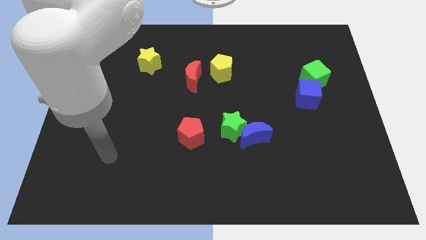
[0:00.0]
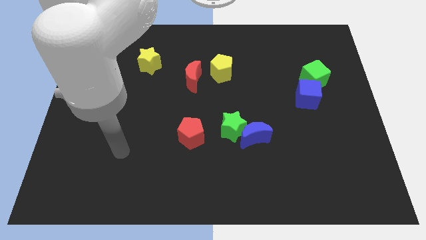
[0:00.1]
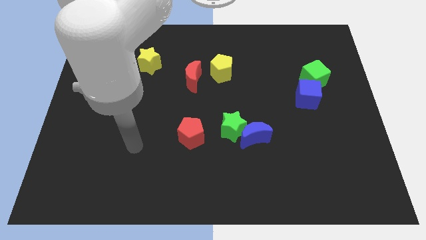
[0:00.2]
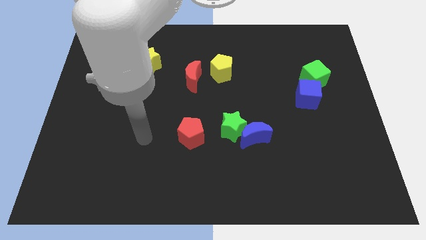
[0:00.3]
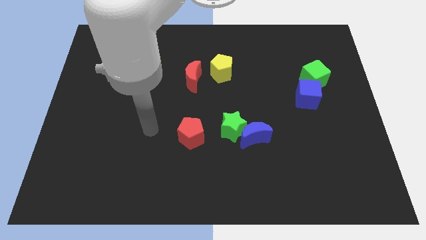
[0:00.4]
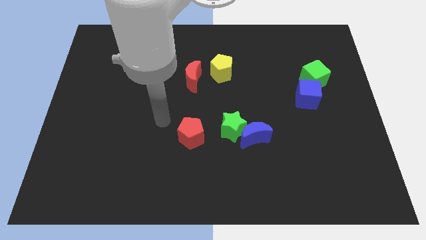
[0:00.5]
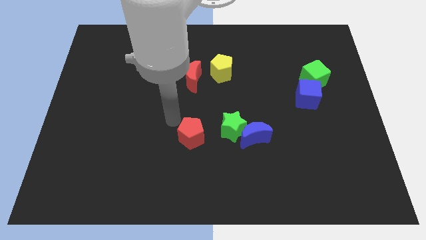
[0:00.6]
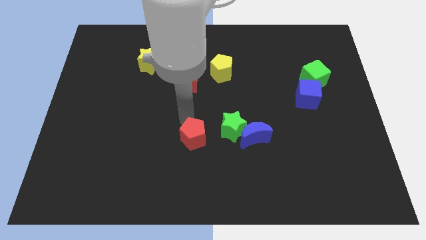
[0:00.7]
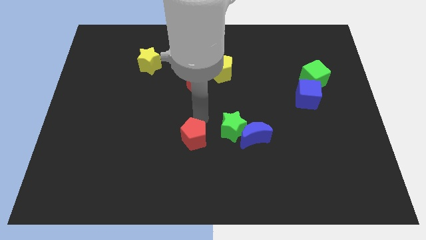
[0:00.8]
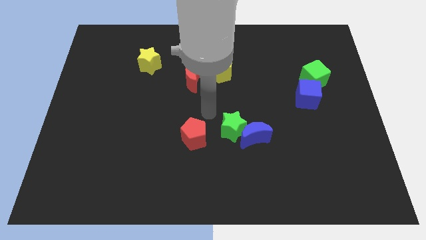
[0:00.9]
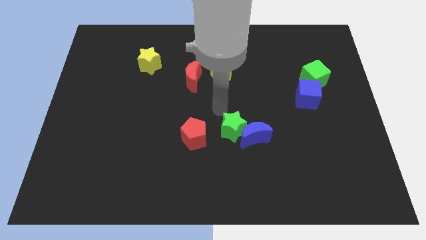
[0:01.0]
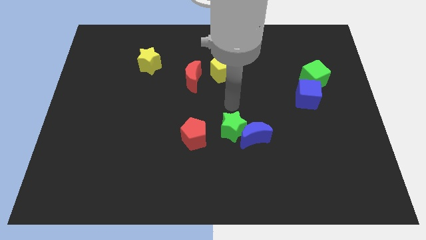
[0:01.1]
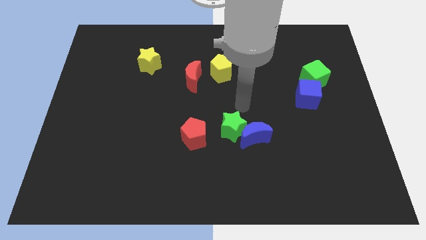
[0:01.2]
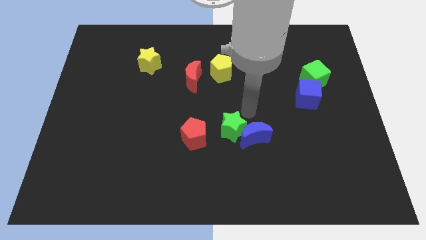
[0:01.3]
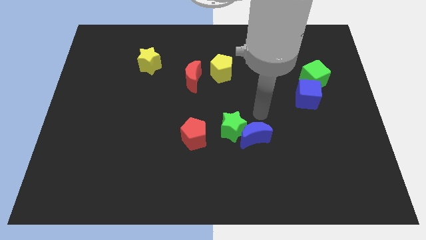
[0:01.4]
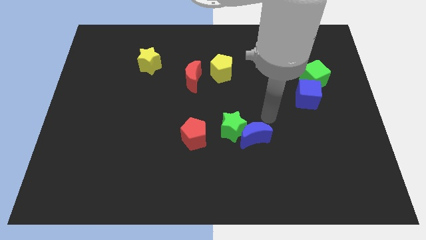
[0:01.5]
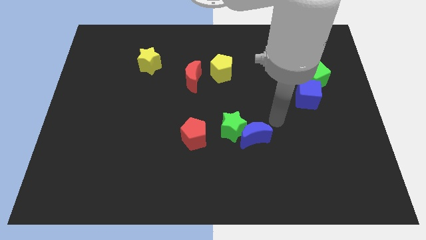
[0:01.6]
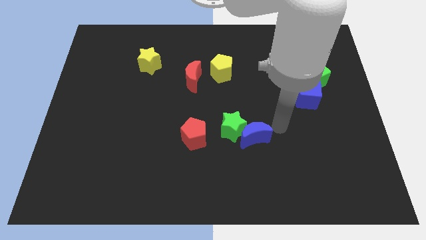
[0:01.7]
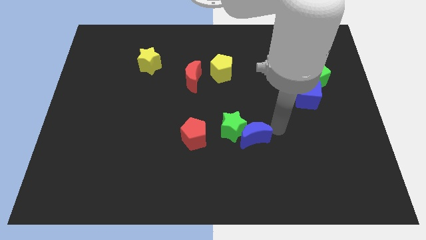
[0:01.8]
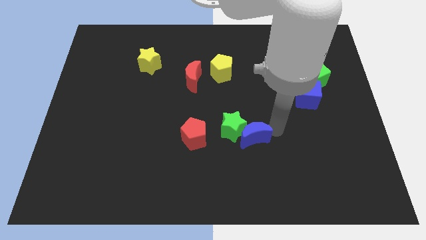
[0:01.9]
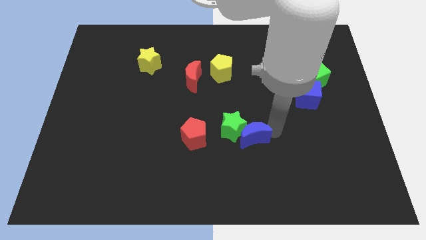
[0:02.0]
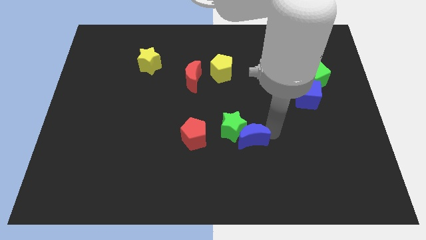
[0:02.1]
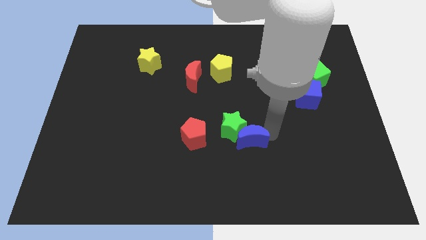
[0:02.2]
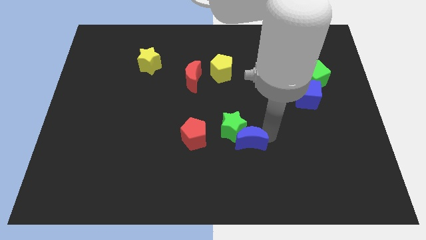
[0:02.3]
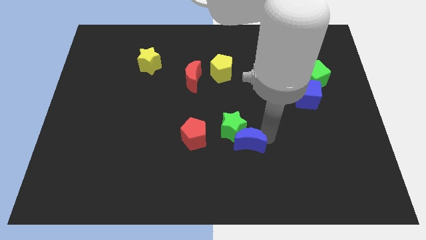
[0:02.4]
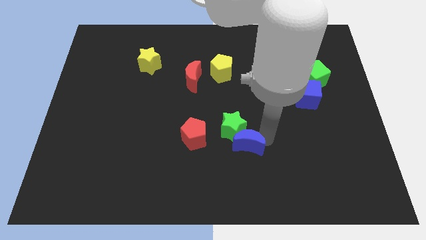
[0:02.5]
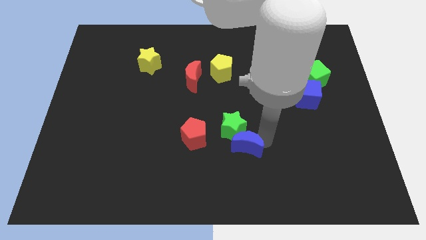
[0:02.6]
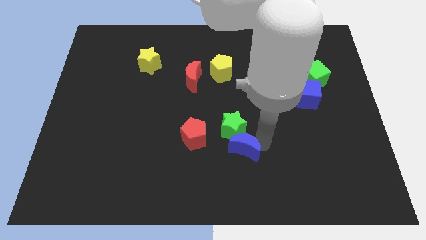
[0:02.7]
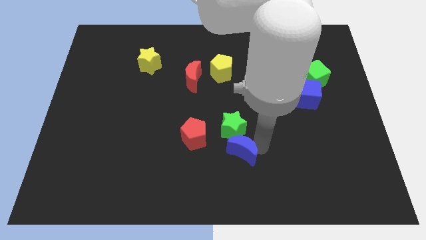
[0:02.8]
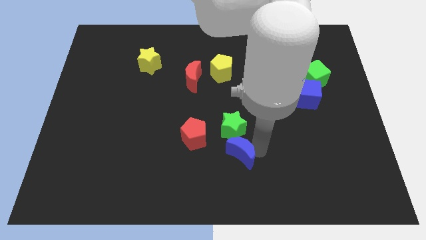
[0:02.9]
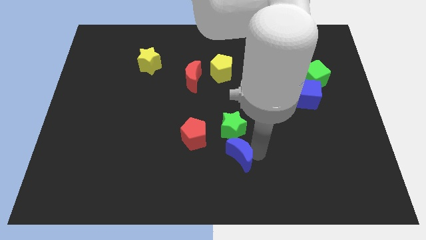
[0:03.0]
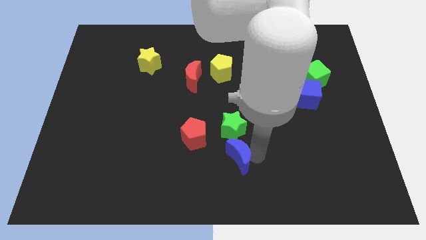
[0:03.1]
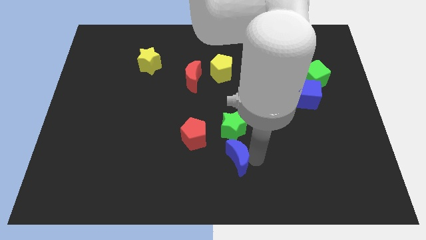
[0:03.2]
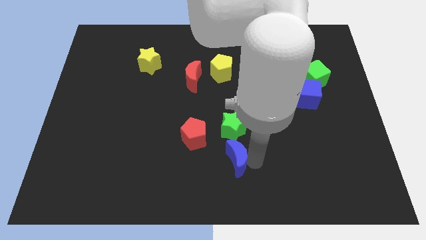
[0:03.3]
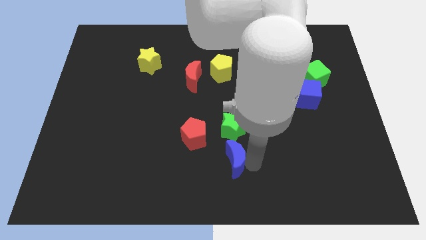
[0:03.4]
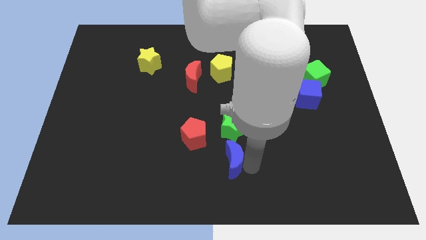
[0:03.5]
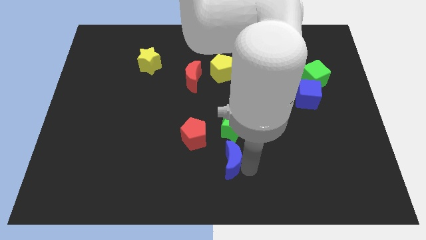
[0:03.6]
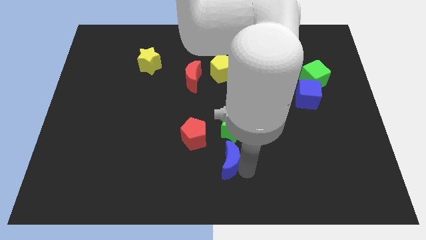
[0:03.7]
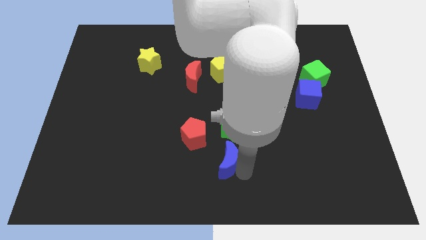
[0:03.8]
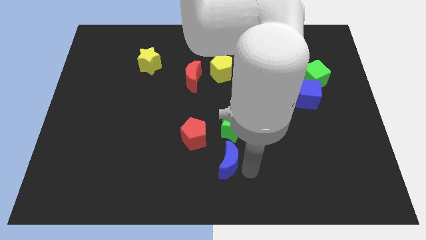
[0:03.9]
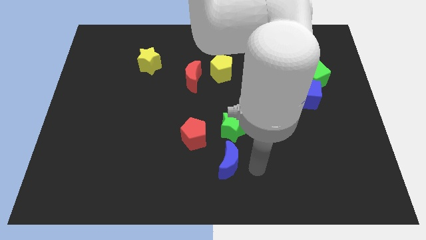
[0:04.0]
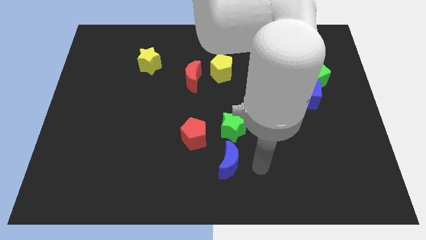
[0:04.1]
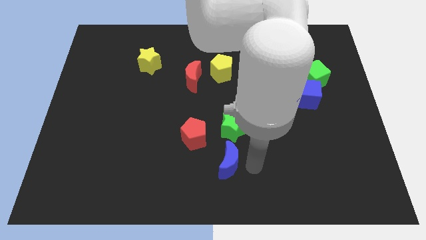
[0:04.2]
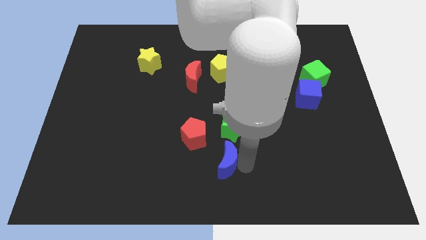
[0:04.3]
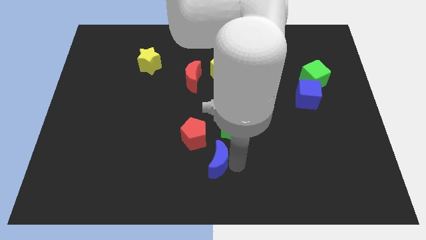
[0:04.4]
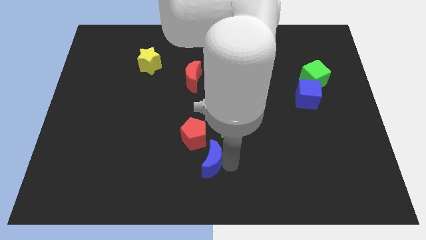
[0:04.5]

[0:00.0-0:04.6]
slide the blue moon a little bit left

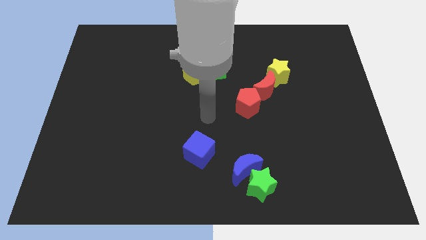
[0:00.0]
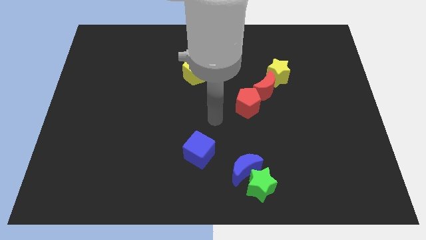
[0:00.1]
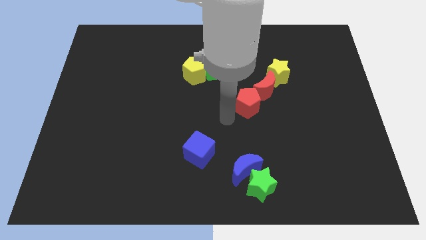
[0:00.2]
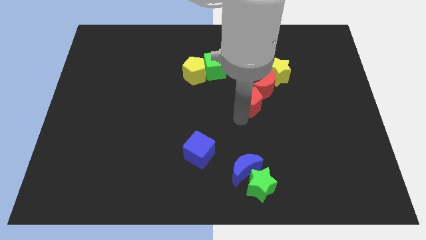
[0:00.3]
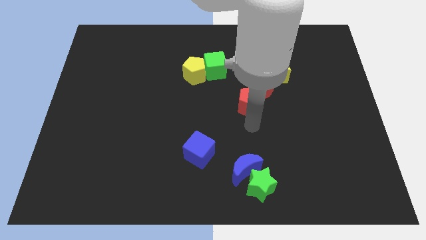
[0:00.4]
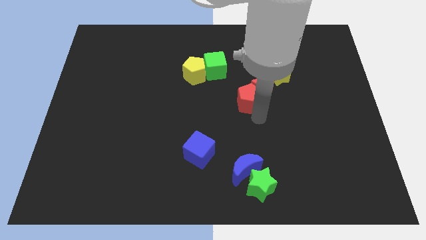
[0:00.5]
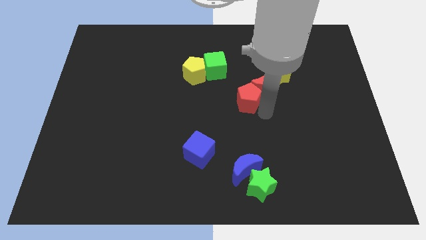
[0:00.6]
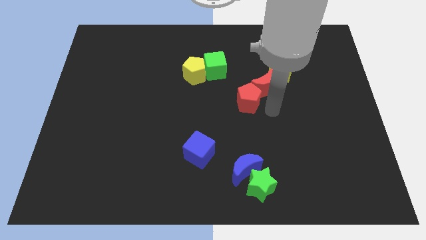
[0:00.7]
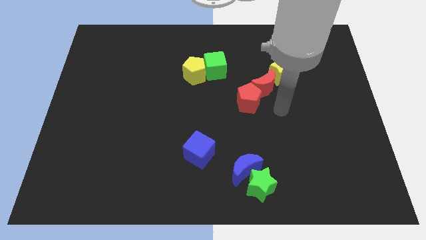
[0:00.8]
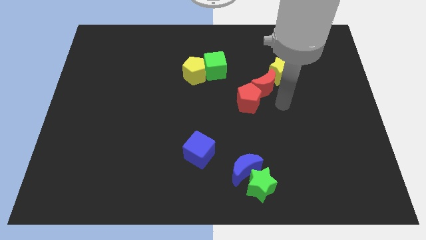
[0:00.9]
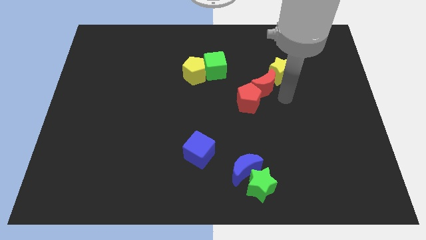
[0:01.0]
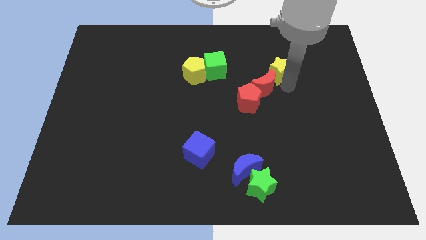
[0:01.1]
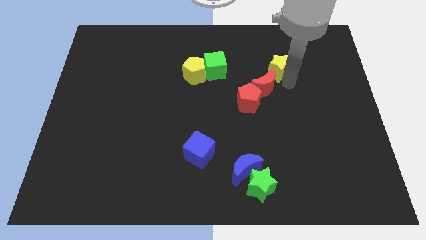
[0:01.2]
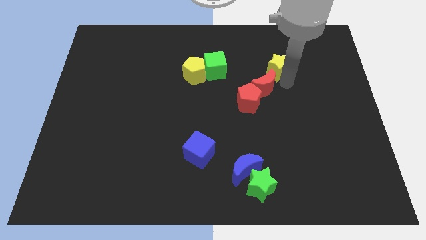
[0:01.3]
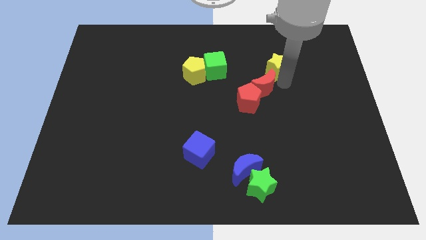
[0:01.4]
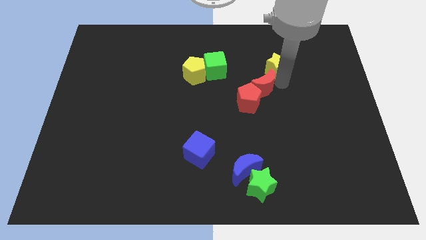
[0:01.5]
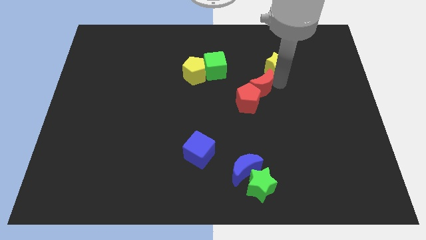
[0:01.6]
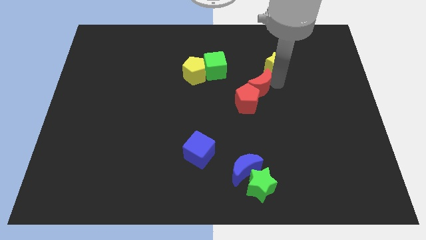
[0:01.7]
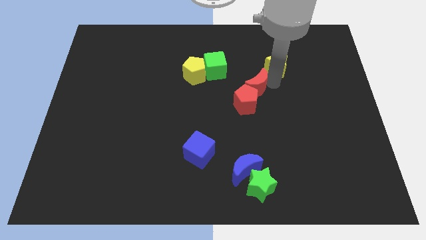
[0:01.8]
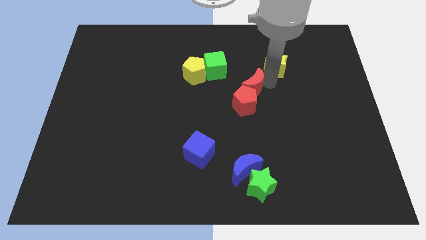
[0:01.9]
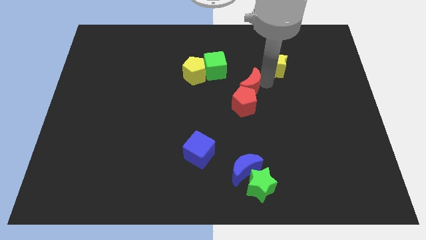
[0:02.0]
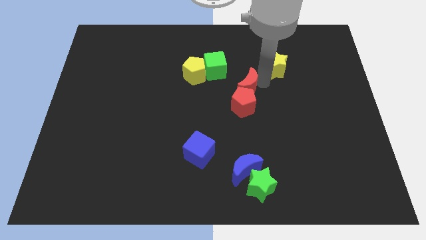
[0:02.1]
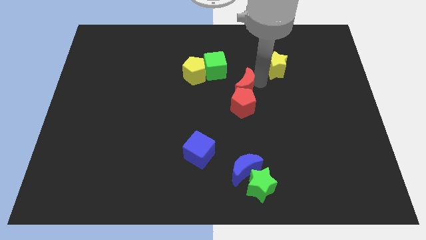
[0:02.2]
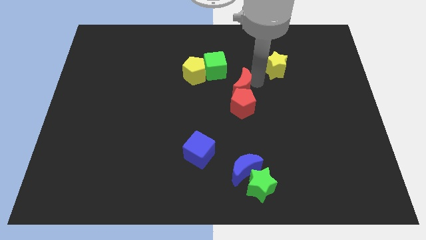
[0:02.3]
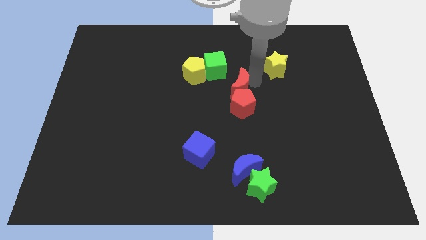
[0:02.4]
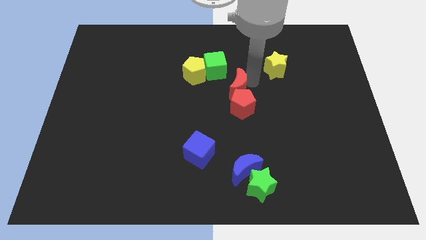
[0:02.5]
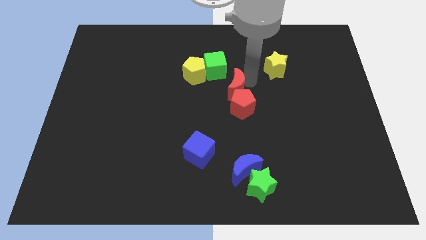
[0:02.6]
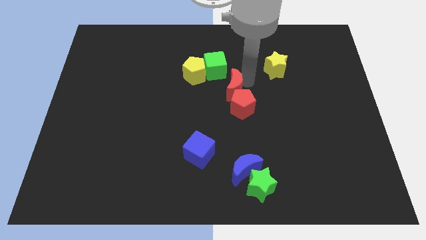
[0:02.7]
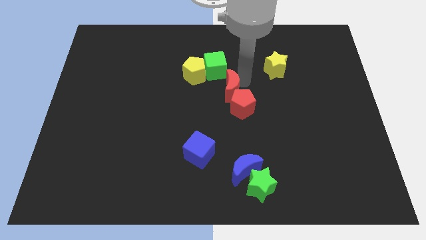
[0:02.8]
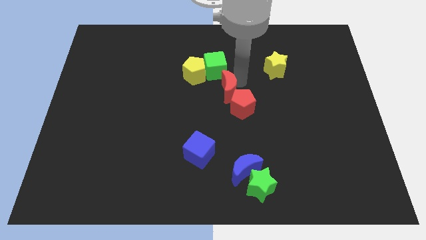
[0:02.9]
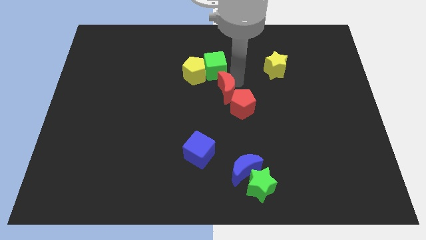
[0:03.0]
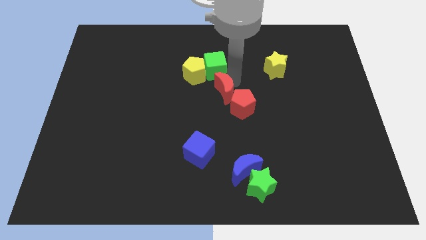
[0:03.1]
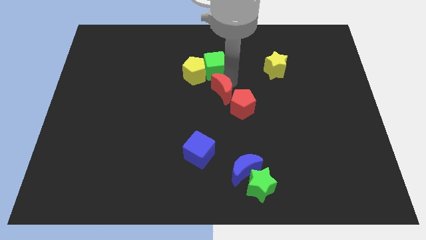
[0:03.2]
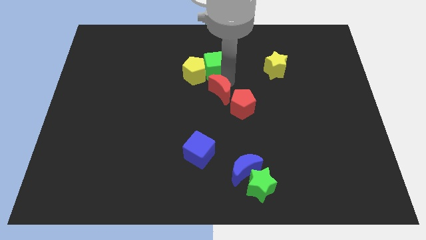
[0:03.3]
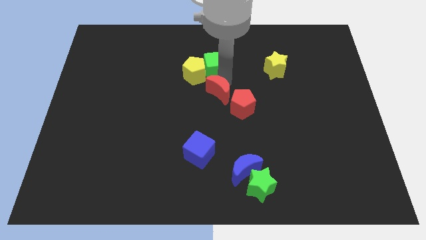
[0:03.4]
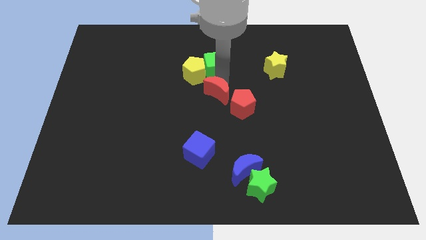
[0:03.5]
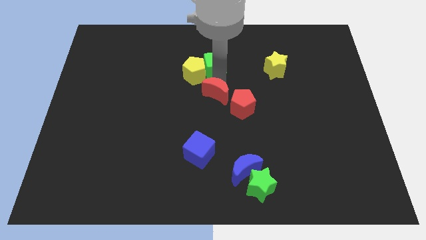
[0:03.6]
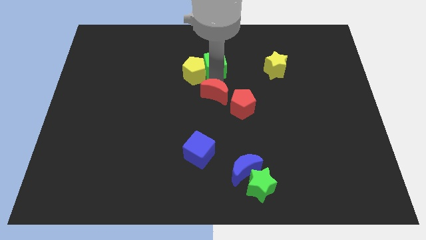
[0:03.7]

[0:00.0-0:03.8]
push the red moon a bit downwards and then to the left
